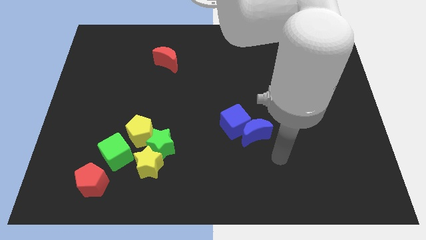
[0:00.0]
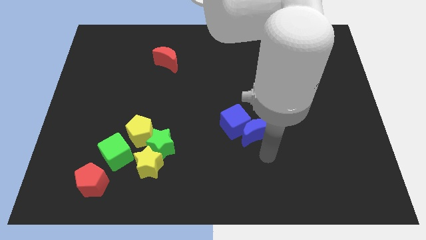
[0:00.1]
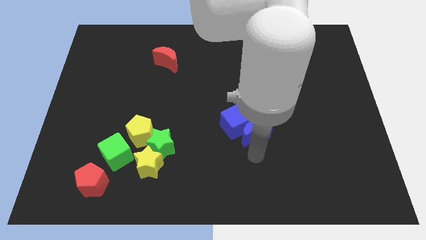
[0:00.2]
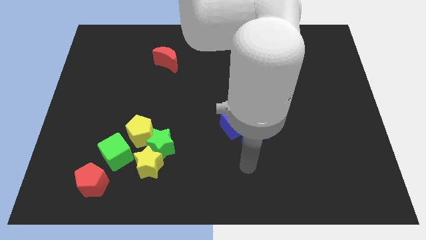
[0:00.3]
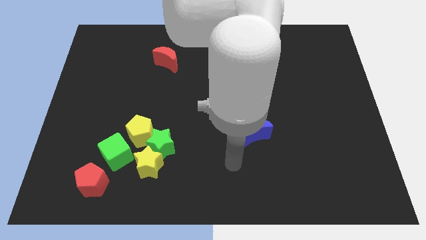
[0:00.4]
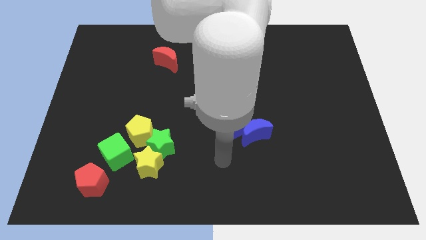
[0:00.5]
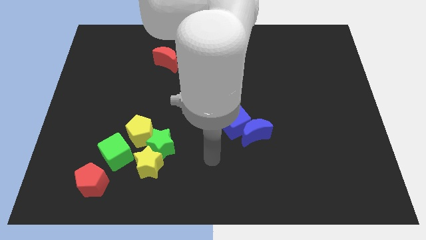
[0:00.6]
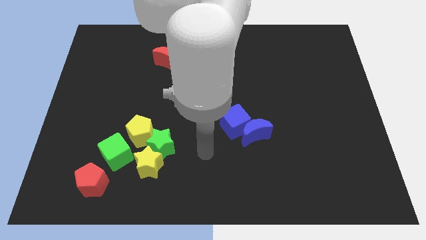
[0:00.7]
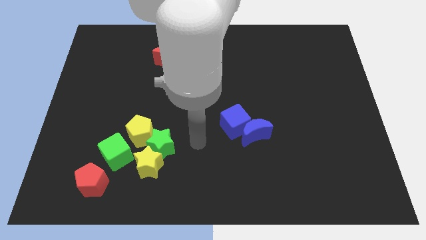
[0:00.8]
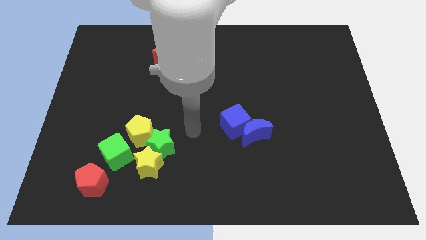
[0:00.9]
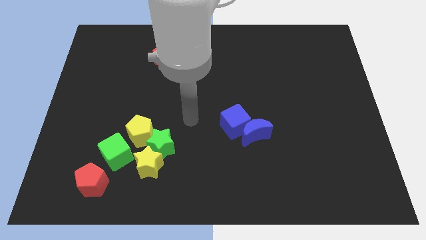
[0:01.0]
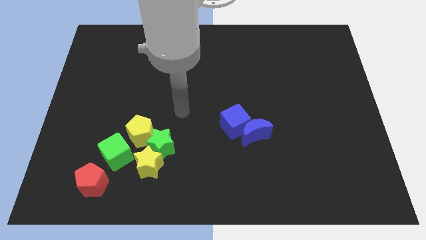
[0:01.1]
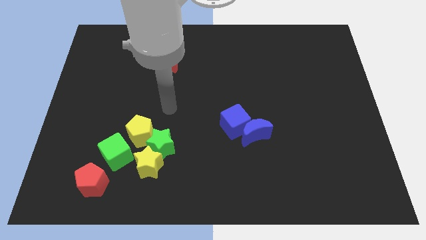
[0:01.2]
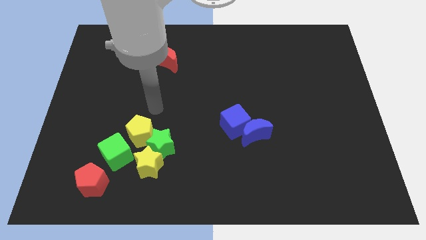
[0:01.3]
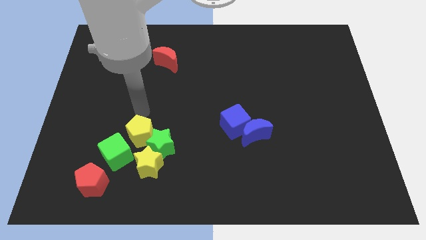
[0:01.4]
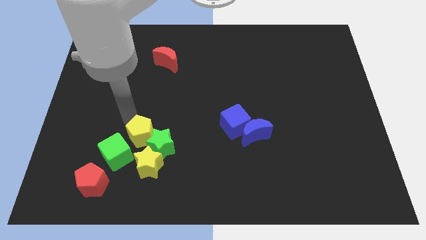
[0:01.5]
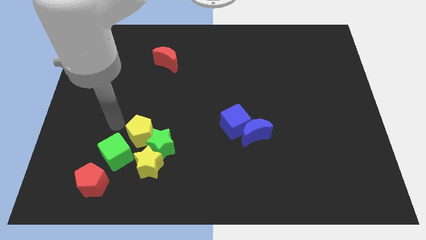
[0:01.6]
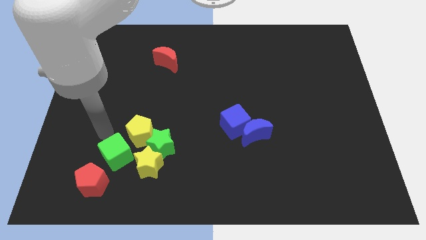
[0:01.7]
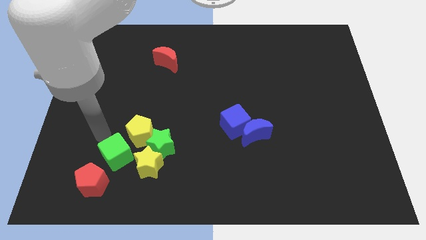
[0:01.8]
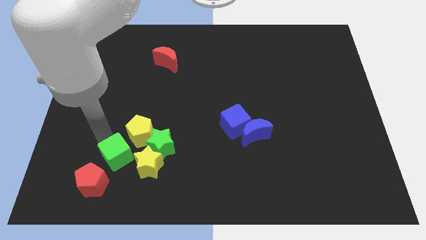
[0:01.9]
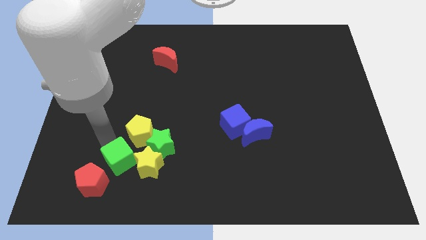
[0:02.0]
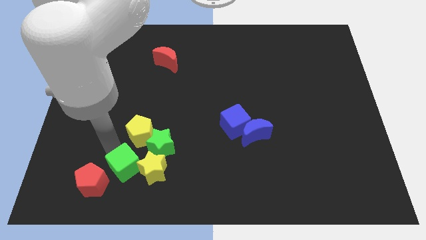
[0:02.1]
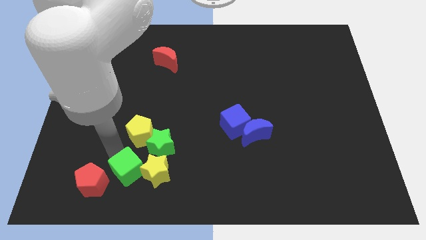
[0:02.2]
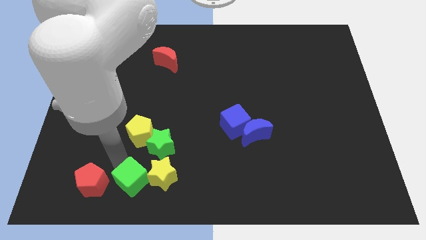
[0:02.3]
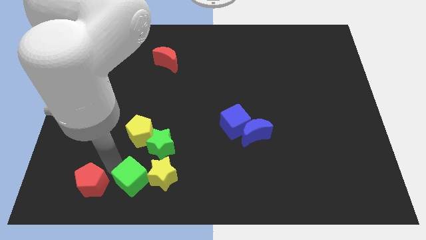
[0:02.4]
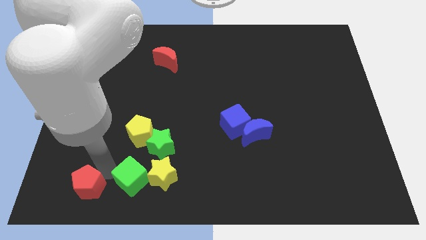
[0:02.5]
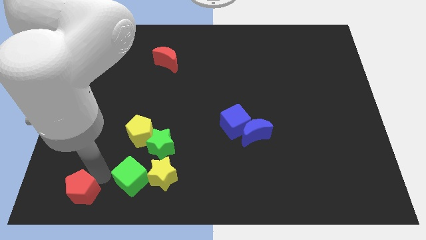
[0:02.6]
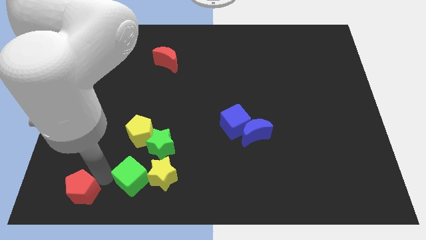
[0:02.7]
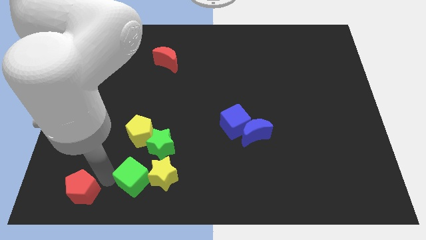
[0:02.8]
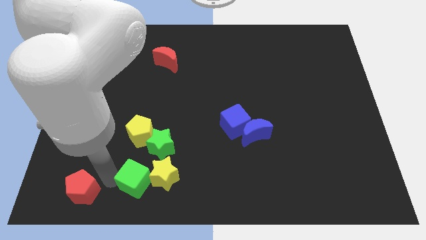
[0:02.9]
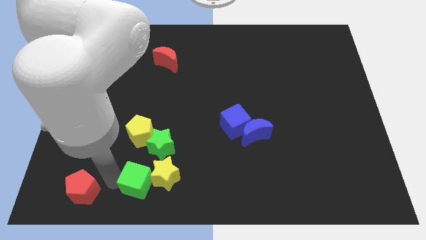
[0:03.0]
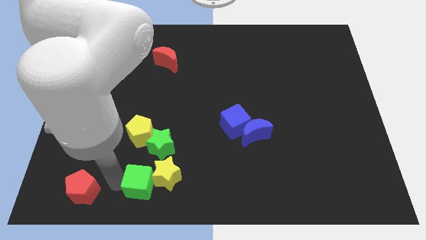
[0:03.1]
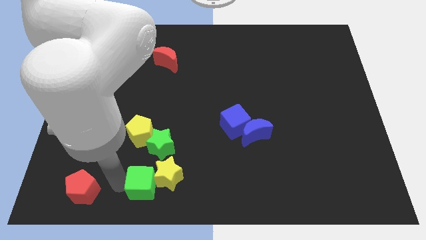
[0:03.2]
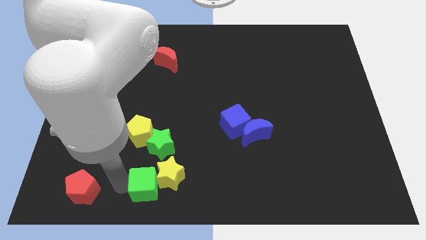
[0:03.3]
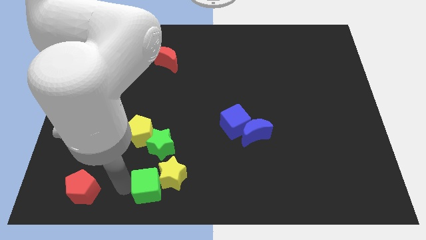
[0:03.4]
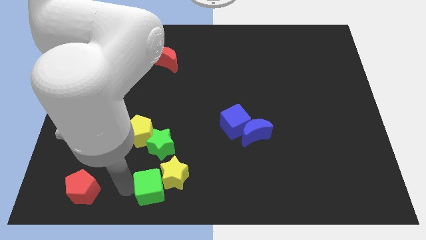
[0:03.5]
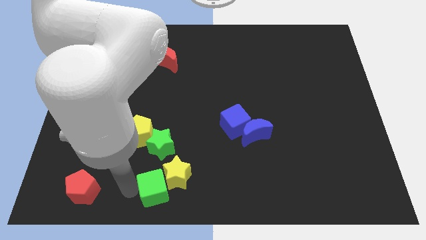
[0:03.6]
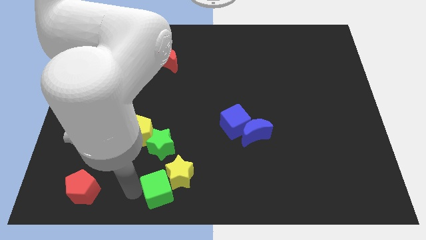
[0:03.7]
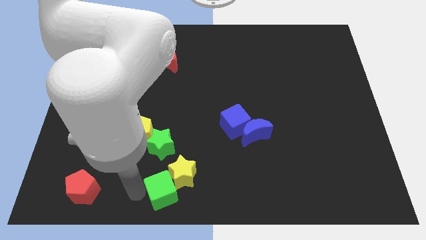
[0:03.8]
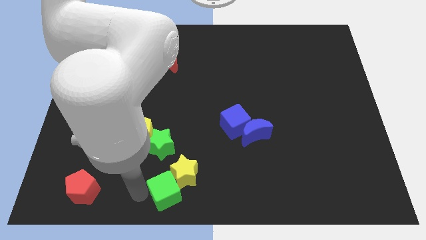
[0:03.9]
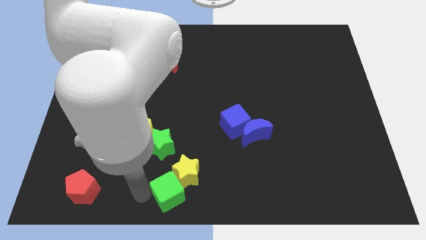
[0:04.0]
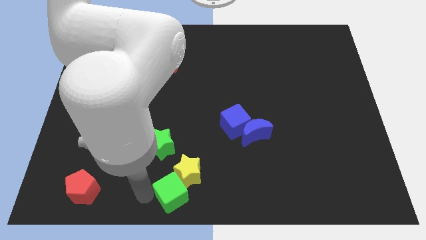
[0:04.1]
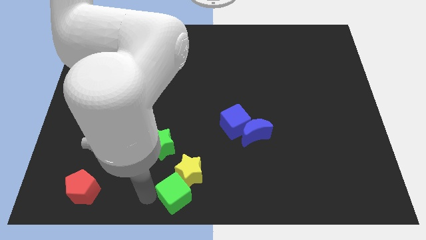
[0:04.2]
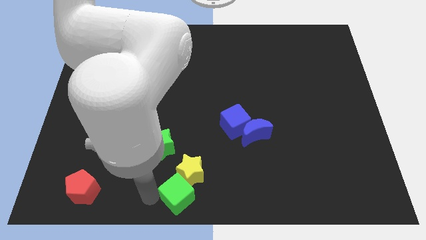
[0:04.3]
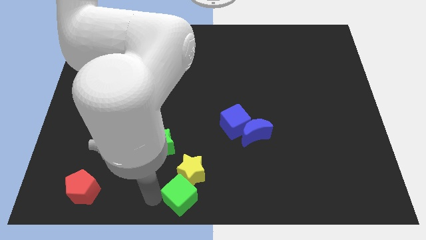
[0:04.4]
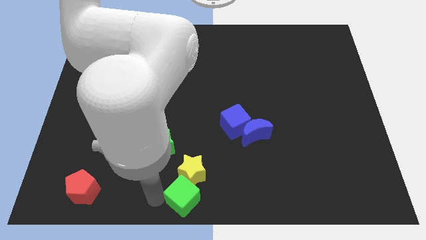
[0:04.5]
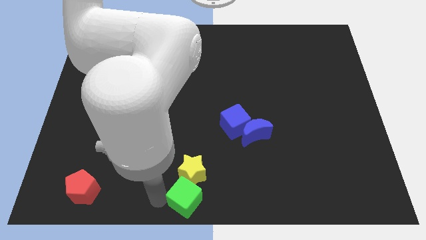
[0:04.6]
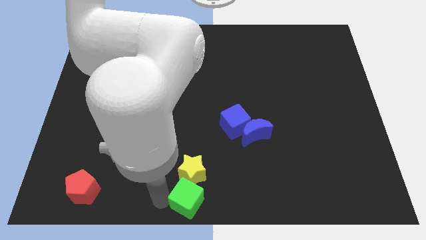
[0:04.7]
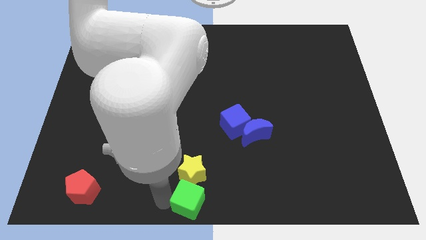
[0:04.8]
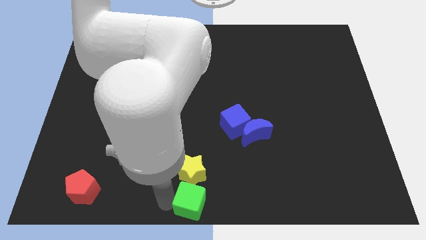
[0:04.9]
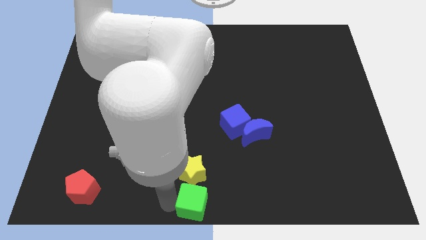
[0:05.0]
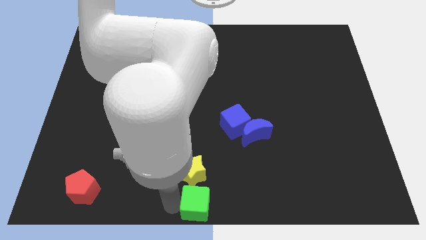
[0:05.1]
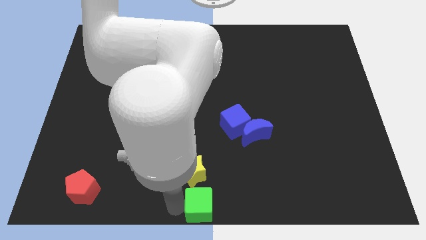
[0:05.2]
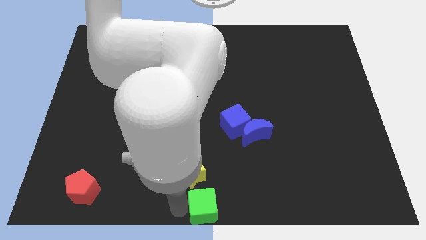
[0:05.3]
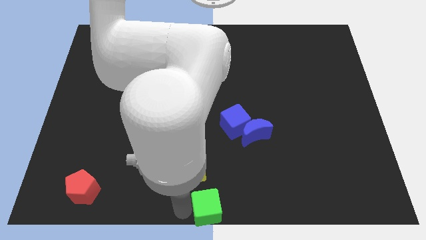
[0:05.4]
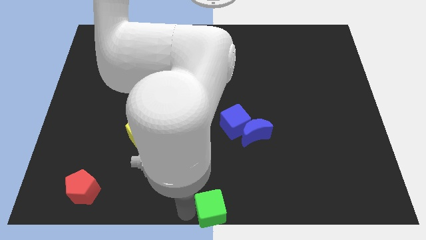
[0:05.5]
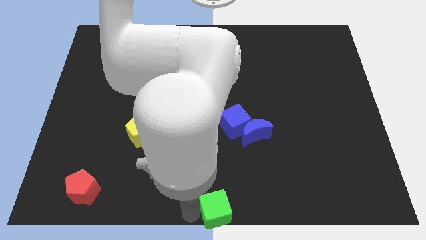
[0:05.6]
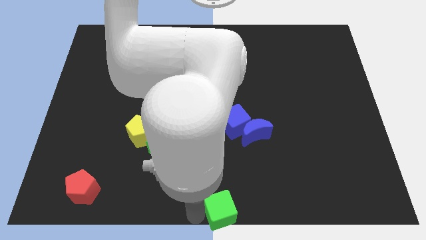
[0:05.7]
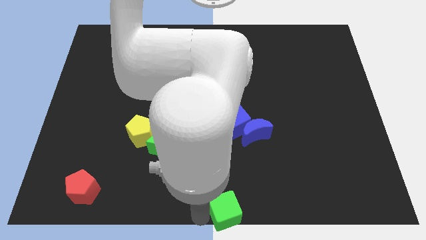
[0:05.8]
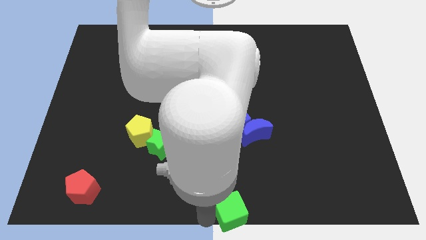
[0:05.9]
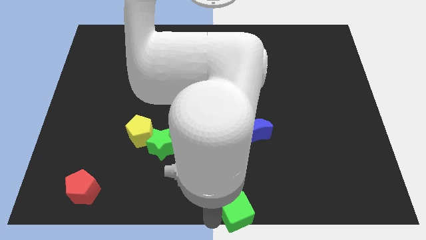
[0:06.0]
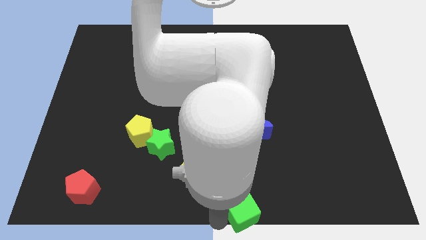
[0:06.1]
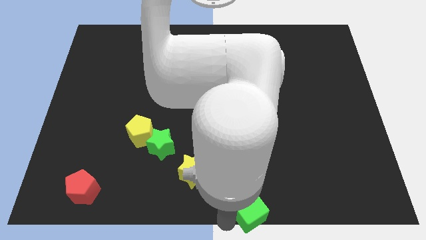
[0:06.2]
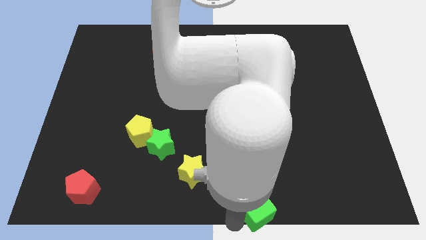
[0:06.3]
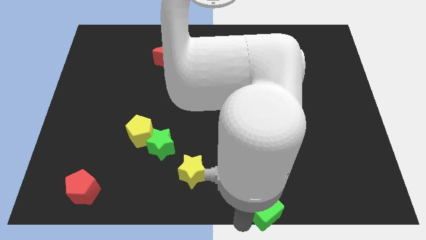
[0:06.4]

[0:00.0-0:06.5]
push the green cube right

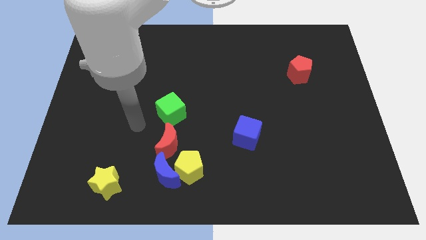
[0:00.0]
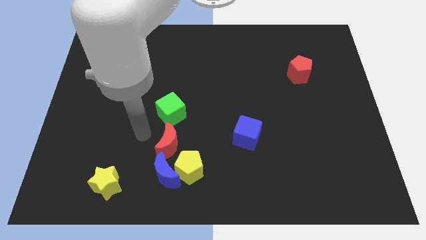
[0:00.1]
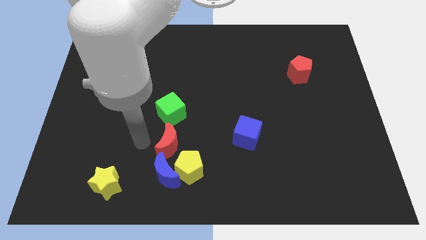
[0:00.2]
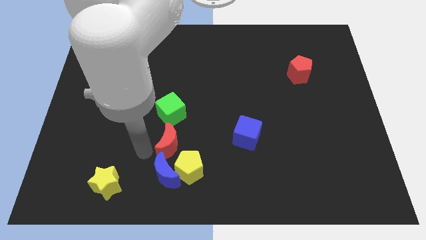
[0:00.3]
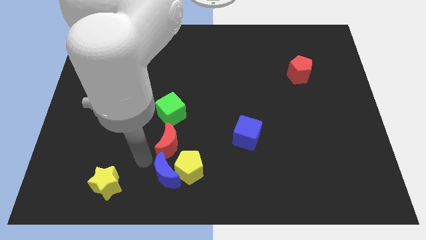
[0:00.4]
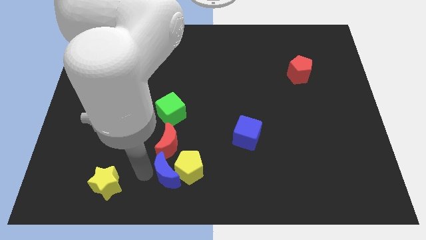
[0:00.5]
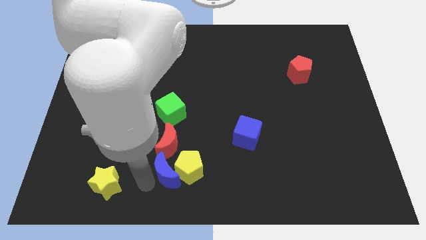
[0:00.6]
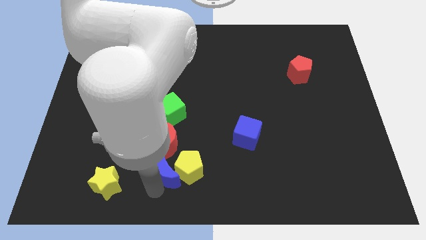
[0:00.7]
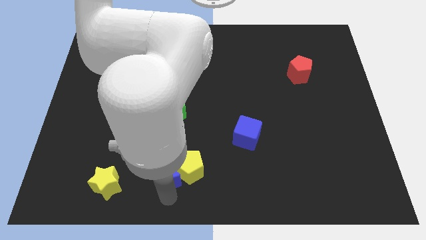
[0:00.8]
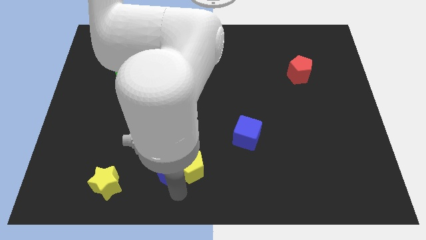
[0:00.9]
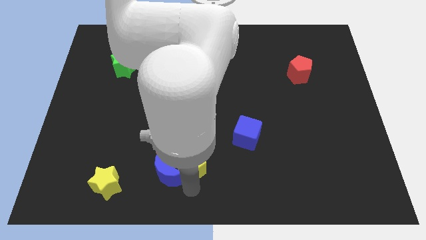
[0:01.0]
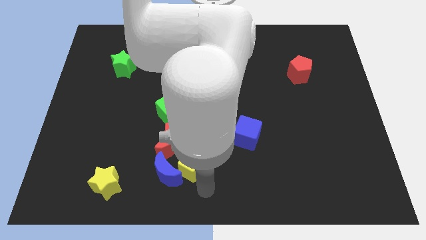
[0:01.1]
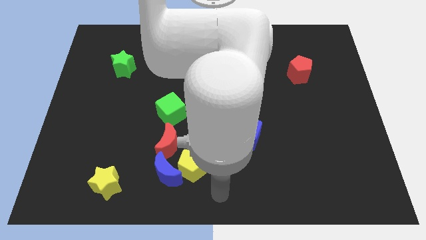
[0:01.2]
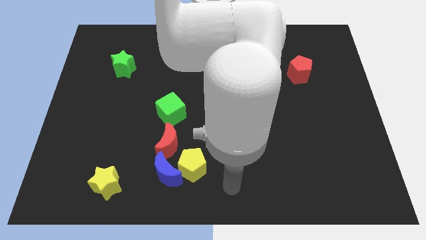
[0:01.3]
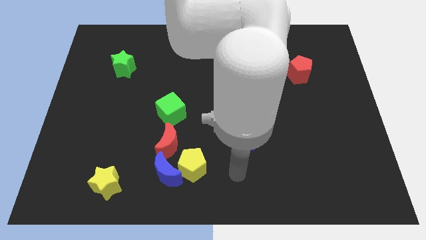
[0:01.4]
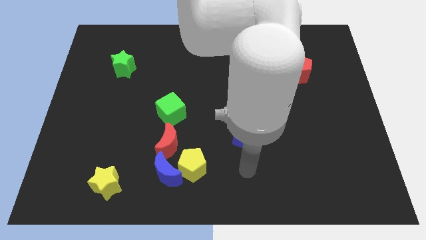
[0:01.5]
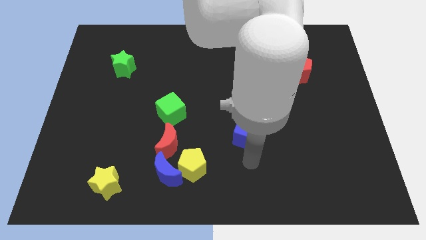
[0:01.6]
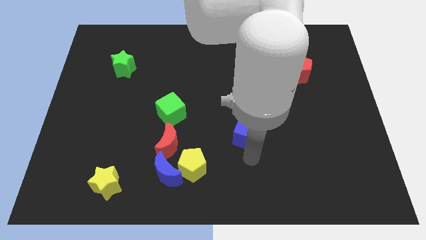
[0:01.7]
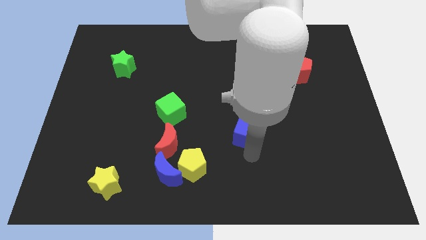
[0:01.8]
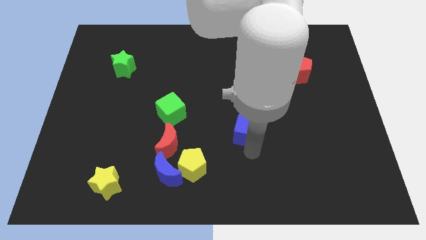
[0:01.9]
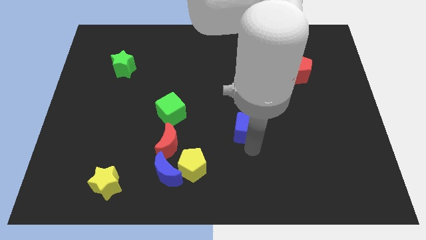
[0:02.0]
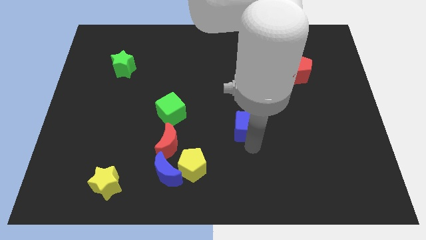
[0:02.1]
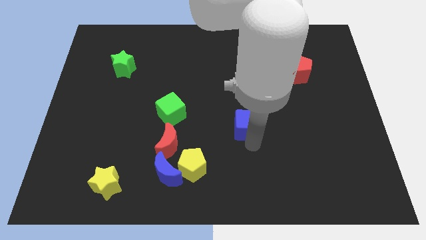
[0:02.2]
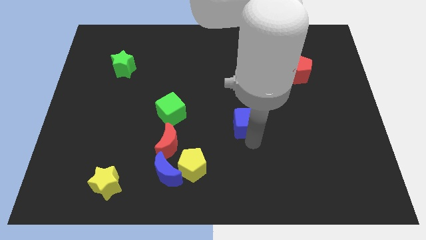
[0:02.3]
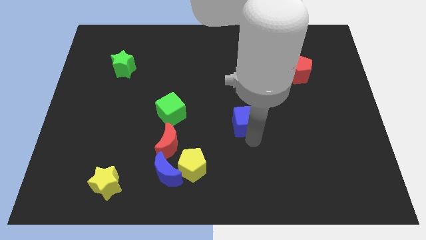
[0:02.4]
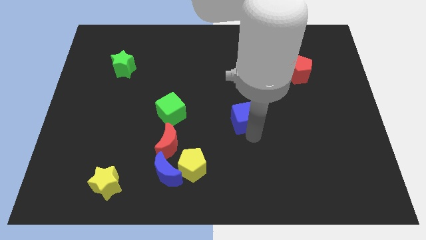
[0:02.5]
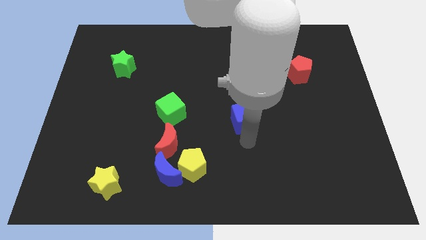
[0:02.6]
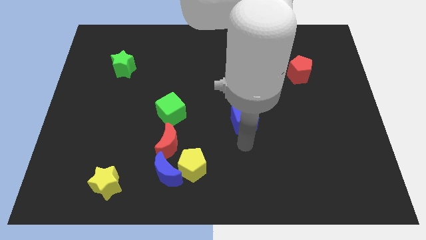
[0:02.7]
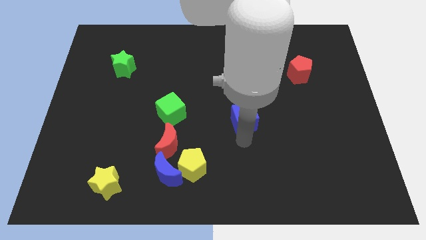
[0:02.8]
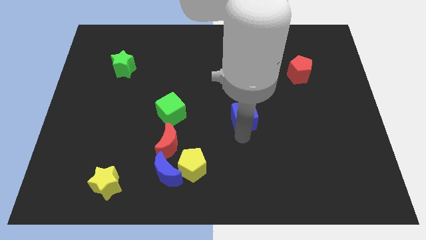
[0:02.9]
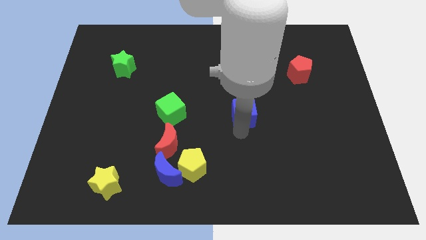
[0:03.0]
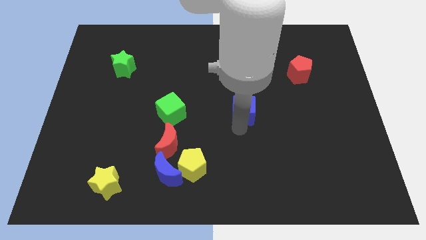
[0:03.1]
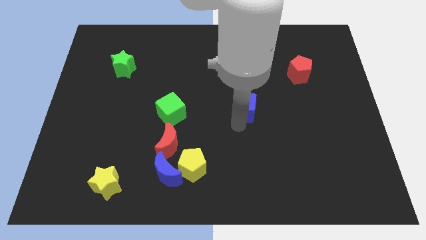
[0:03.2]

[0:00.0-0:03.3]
push the blue cube somewhat upwards
